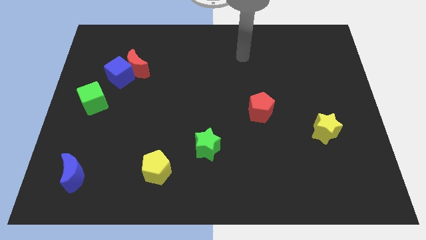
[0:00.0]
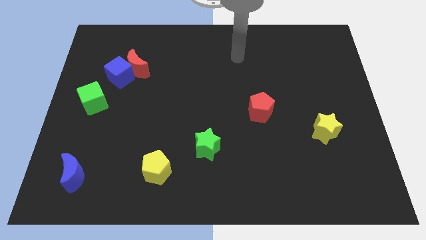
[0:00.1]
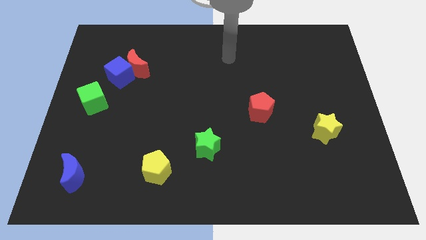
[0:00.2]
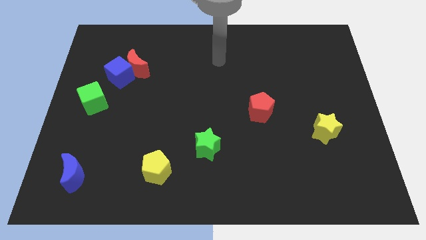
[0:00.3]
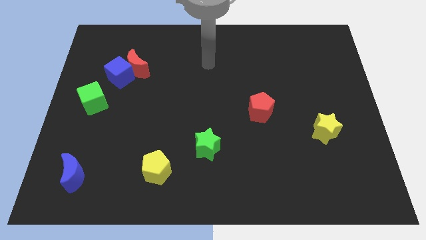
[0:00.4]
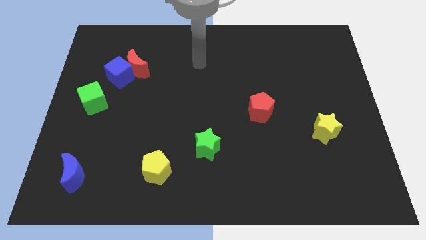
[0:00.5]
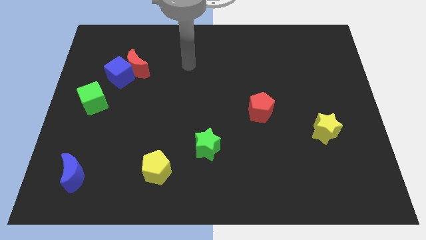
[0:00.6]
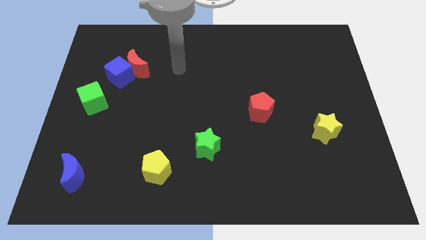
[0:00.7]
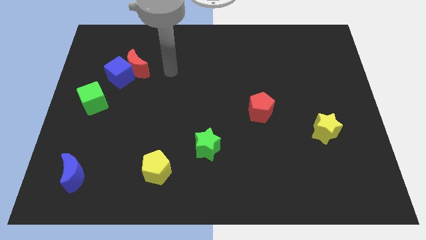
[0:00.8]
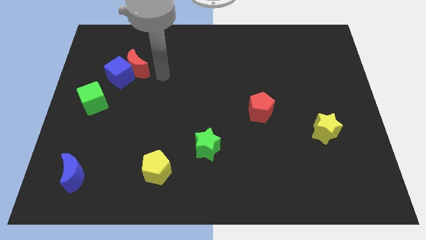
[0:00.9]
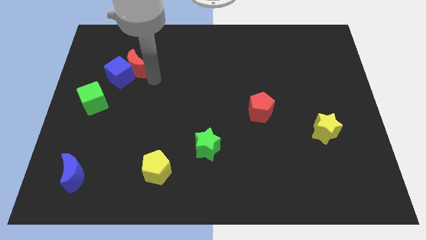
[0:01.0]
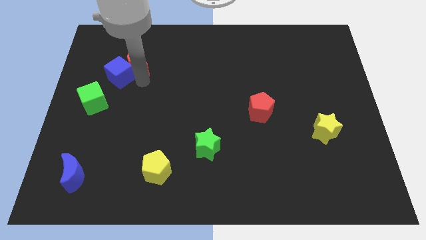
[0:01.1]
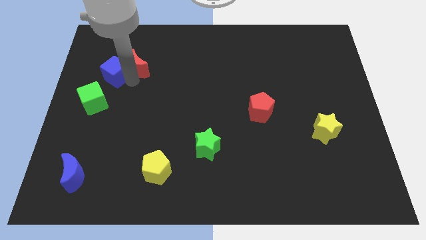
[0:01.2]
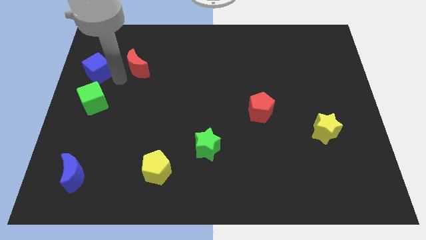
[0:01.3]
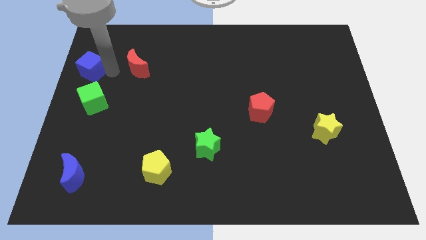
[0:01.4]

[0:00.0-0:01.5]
move the red moon away from the blue cube

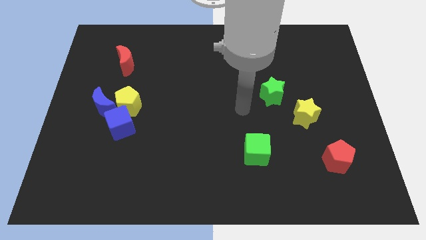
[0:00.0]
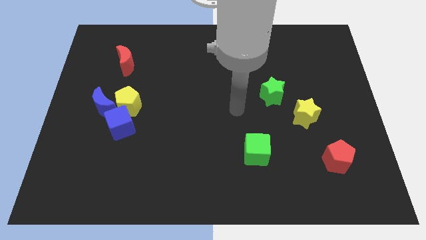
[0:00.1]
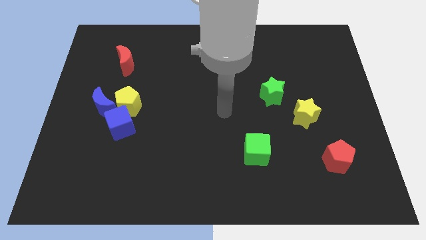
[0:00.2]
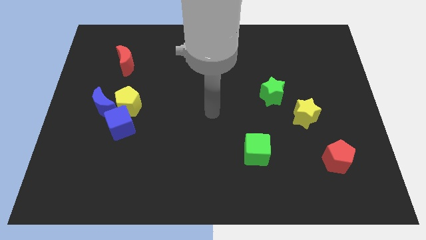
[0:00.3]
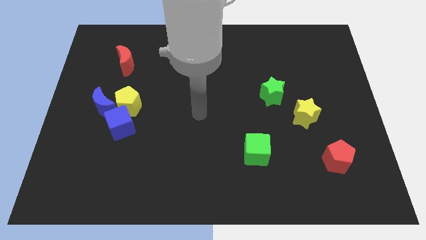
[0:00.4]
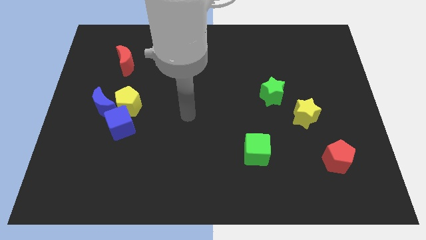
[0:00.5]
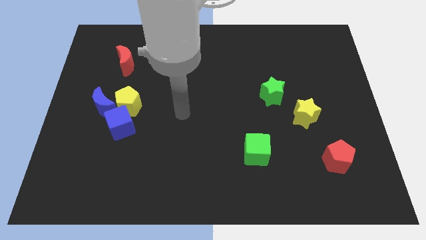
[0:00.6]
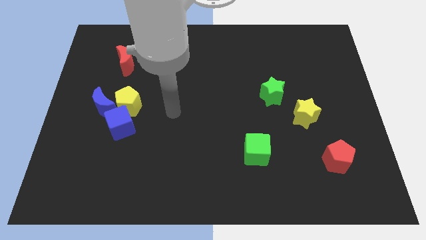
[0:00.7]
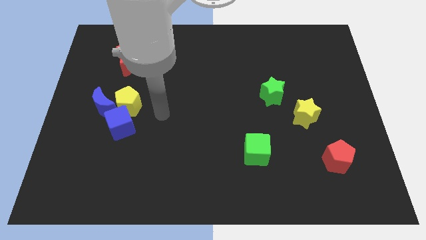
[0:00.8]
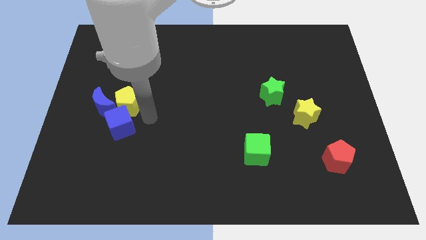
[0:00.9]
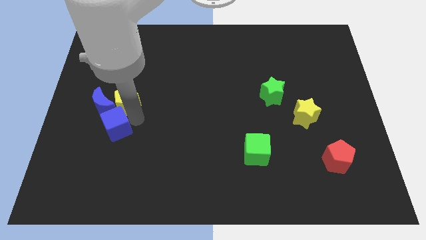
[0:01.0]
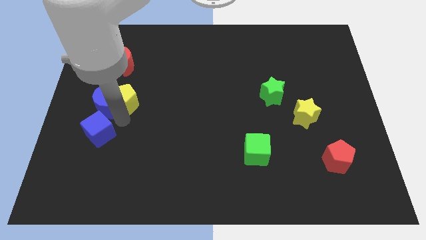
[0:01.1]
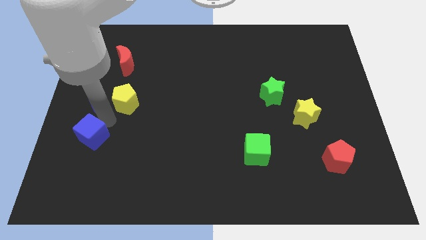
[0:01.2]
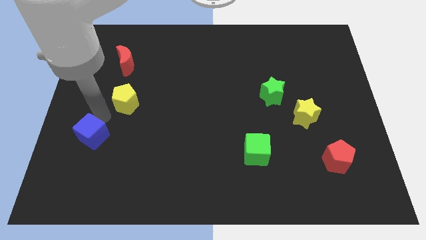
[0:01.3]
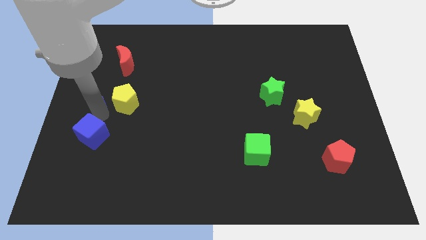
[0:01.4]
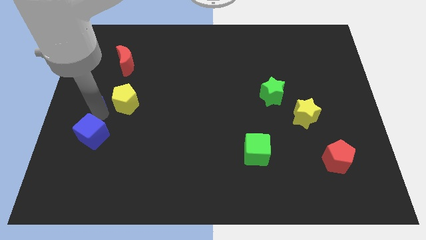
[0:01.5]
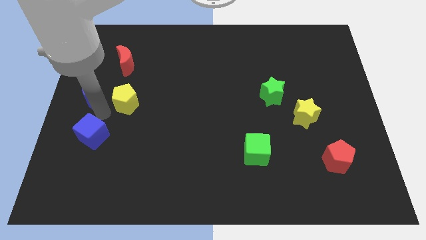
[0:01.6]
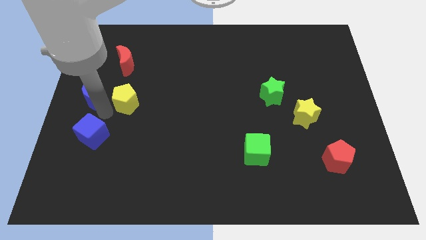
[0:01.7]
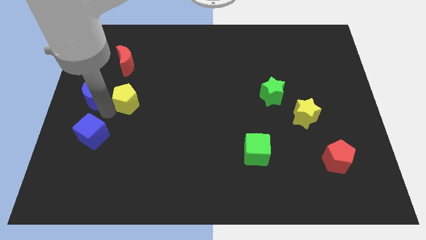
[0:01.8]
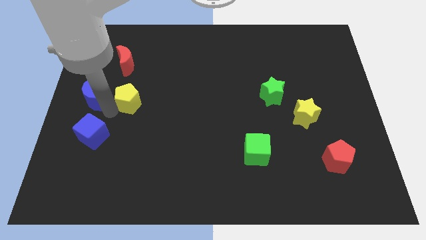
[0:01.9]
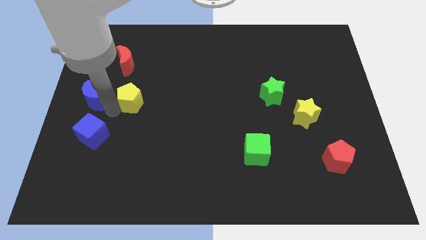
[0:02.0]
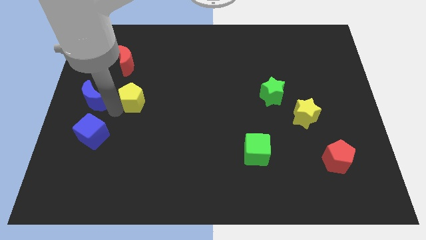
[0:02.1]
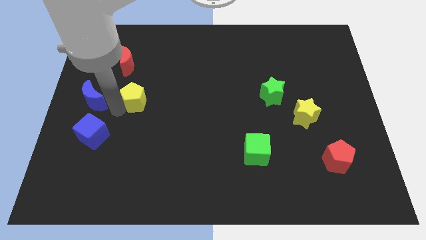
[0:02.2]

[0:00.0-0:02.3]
pull the yellow pentagon apart from the blue moon and blue cube

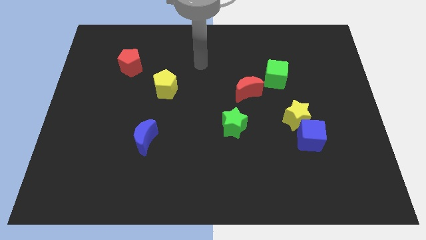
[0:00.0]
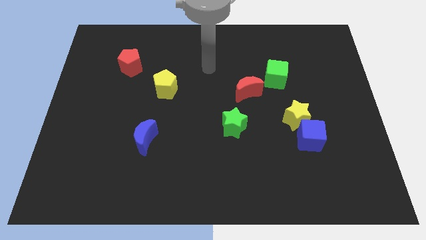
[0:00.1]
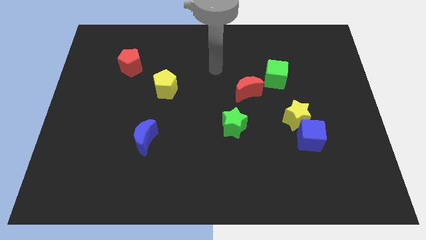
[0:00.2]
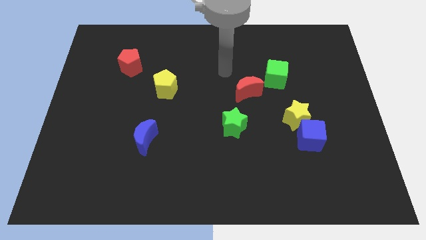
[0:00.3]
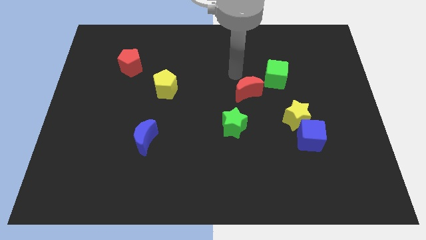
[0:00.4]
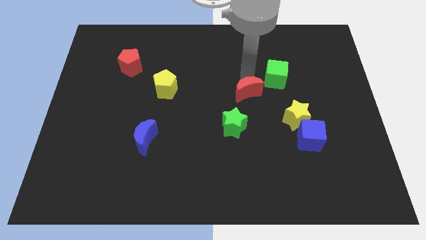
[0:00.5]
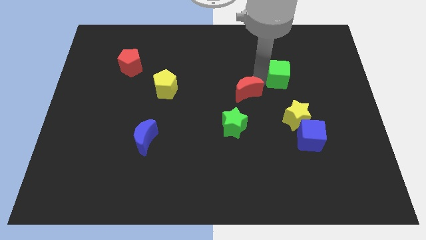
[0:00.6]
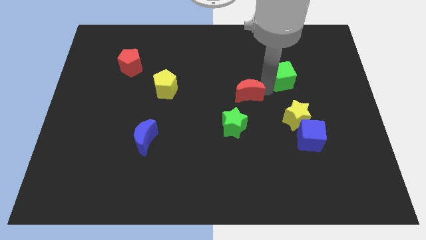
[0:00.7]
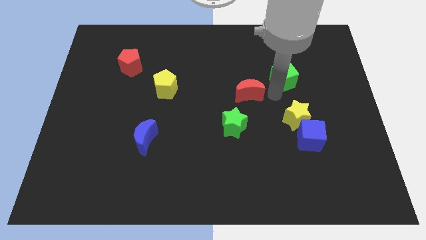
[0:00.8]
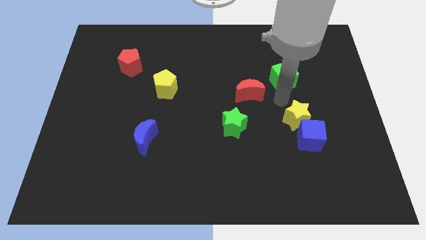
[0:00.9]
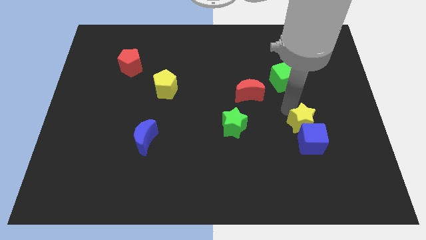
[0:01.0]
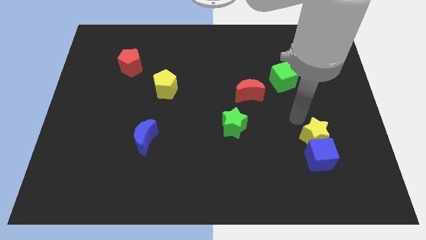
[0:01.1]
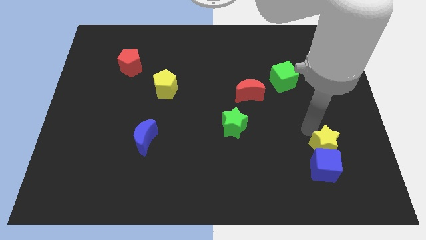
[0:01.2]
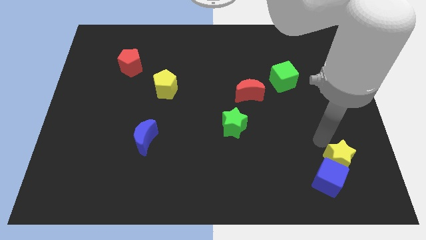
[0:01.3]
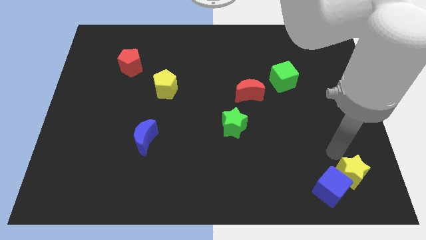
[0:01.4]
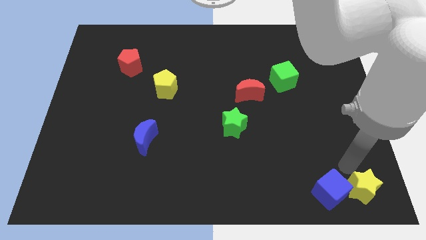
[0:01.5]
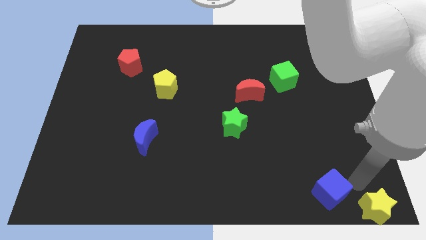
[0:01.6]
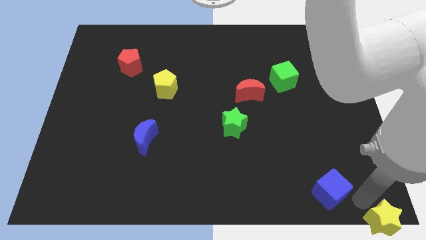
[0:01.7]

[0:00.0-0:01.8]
move the blue cube away from the yellow star

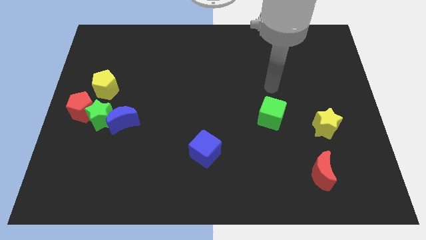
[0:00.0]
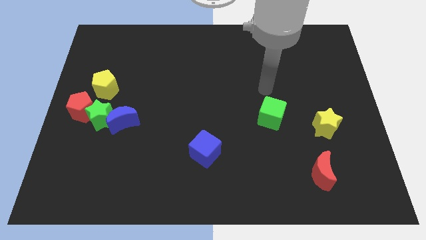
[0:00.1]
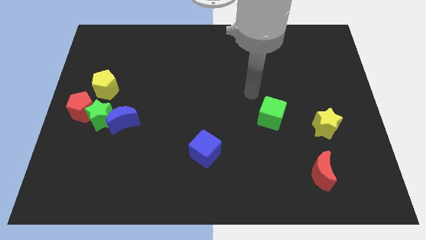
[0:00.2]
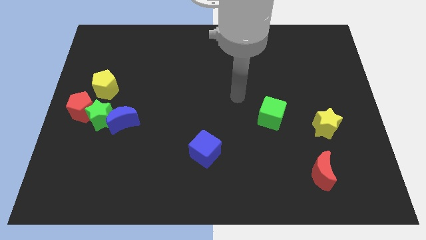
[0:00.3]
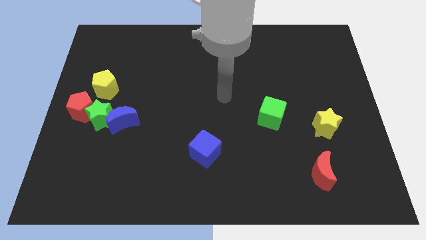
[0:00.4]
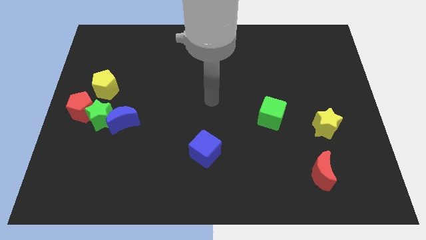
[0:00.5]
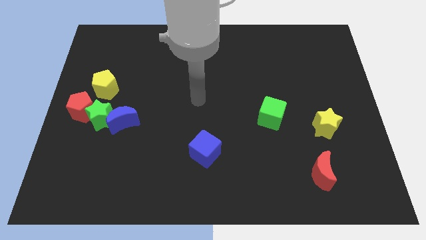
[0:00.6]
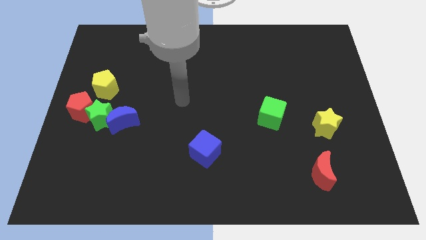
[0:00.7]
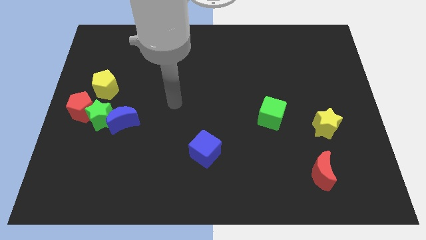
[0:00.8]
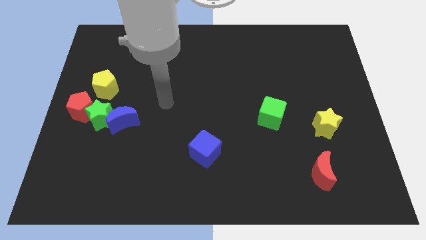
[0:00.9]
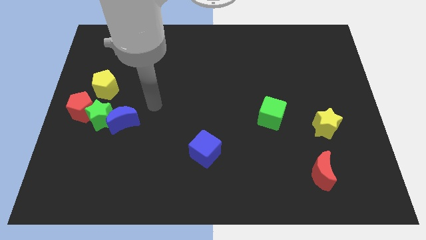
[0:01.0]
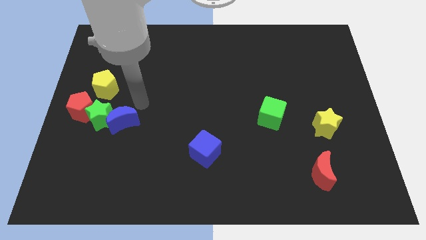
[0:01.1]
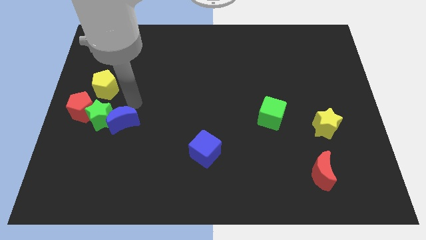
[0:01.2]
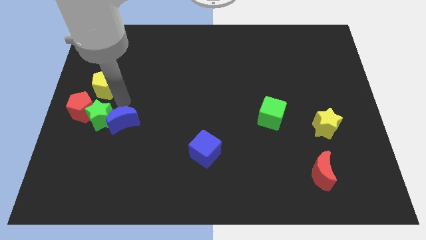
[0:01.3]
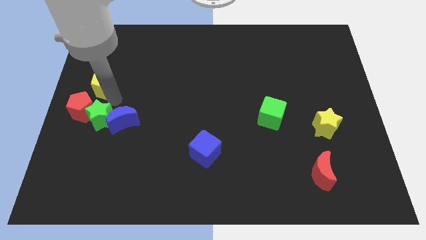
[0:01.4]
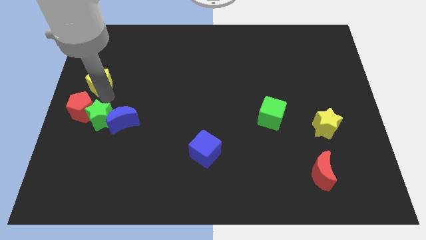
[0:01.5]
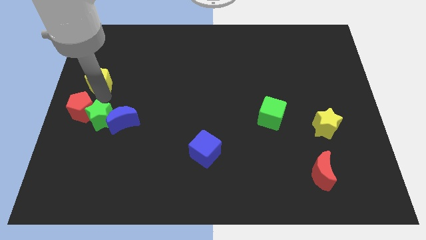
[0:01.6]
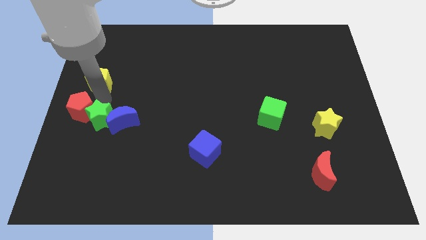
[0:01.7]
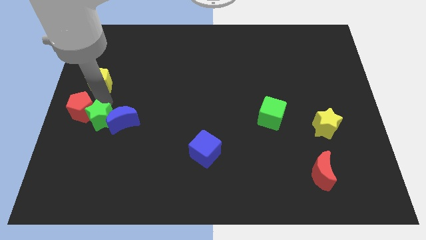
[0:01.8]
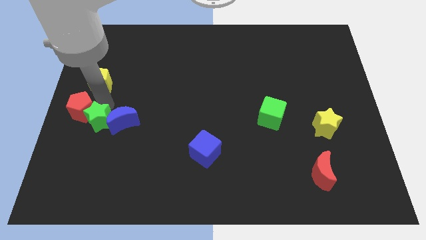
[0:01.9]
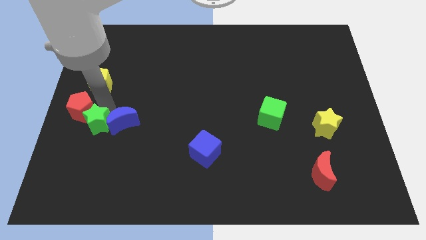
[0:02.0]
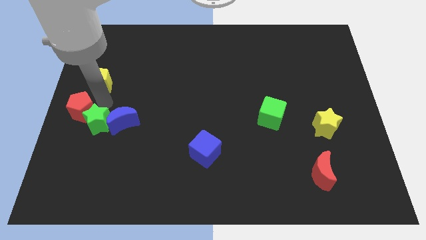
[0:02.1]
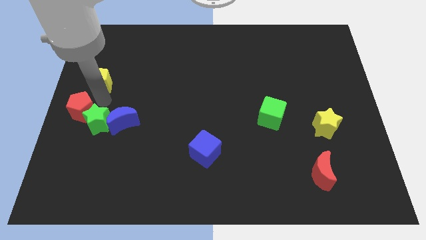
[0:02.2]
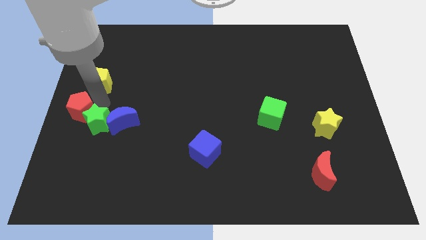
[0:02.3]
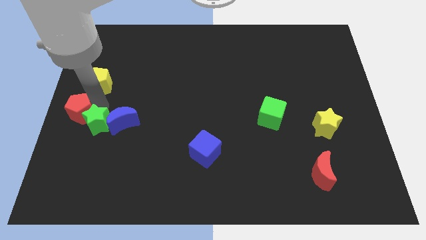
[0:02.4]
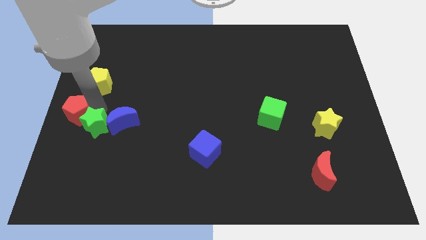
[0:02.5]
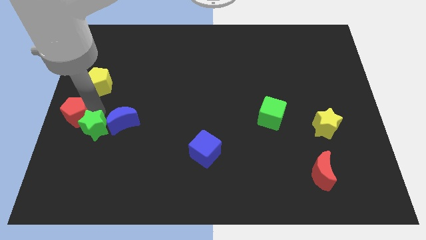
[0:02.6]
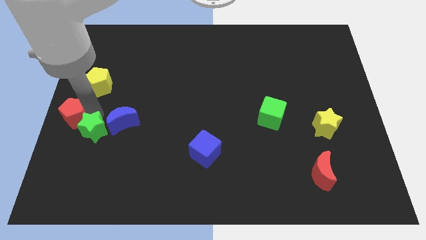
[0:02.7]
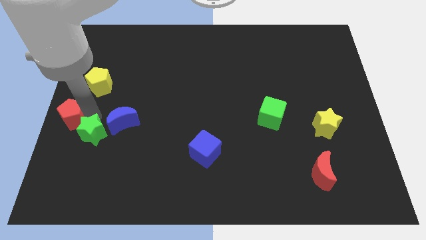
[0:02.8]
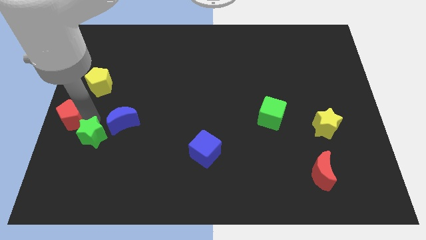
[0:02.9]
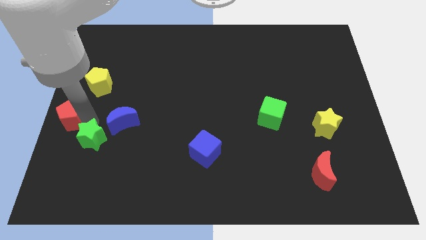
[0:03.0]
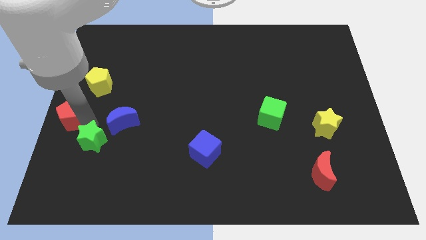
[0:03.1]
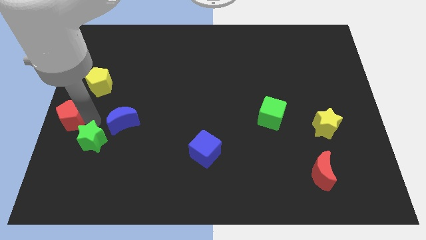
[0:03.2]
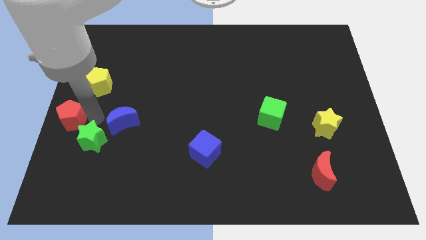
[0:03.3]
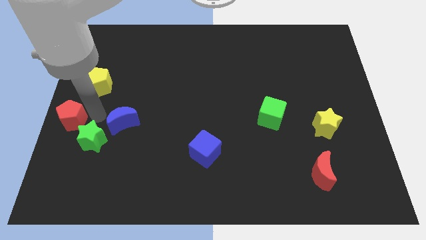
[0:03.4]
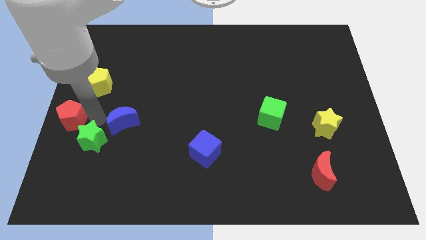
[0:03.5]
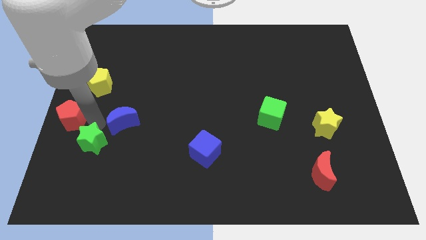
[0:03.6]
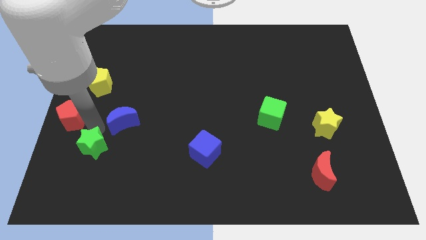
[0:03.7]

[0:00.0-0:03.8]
move the green star away from the clump
